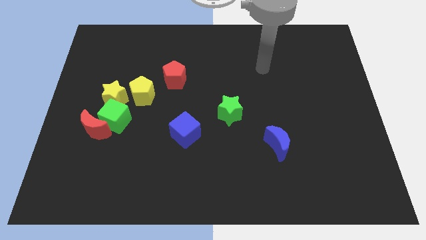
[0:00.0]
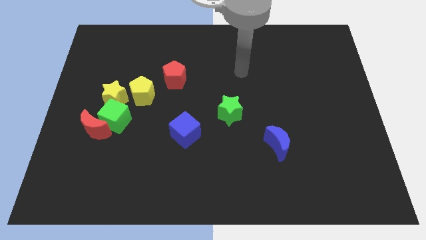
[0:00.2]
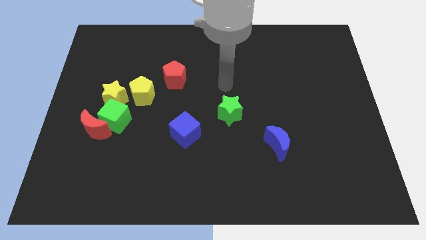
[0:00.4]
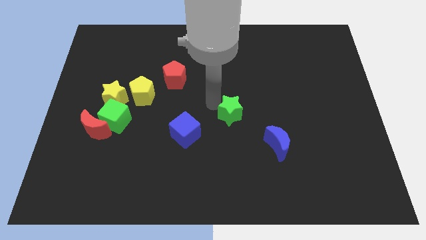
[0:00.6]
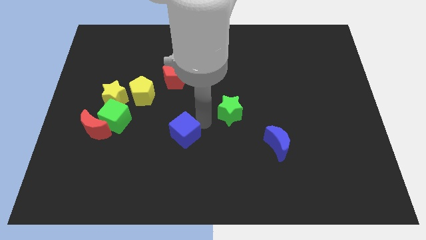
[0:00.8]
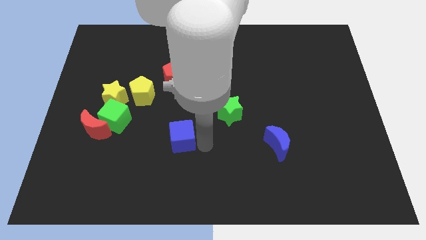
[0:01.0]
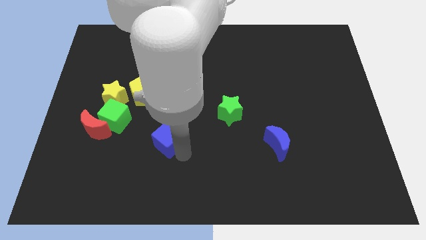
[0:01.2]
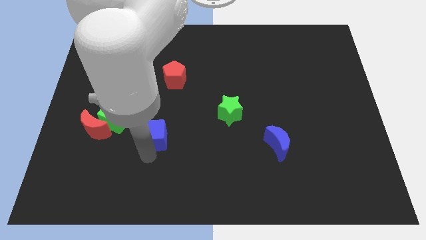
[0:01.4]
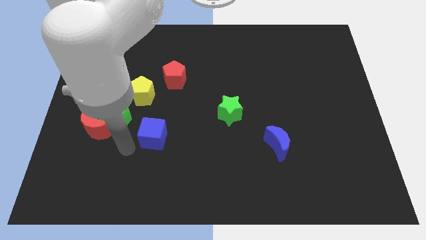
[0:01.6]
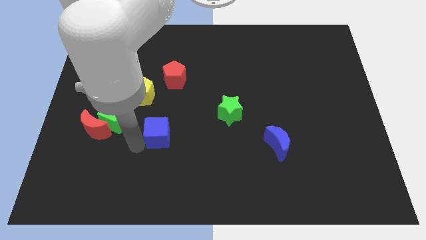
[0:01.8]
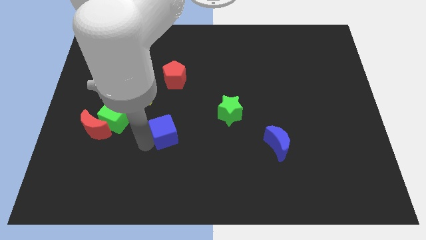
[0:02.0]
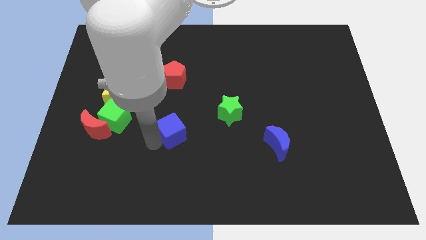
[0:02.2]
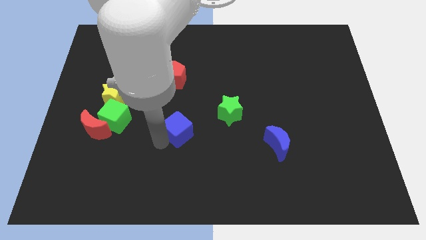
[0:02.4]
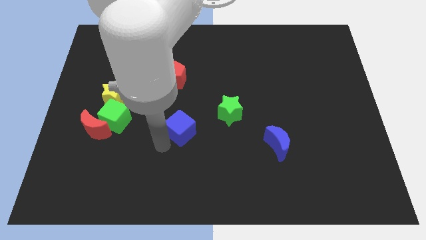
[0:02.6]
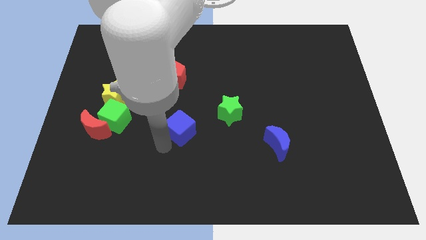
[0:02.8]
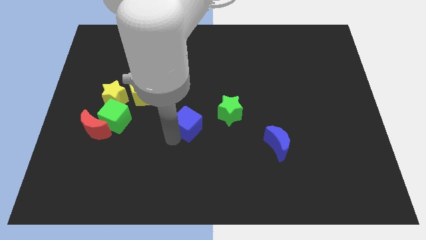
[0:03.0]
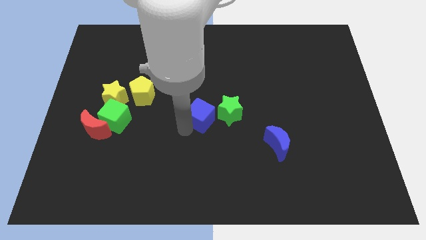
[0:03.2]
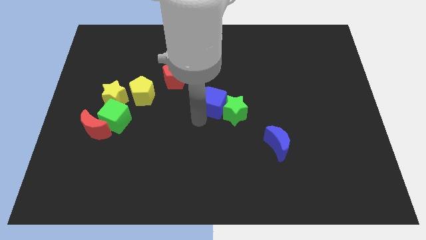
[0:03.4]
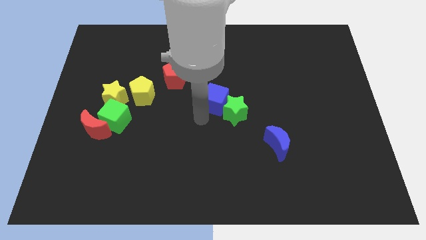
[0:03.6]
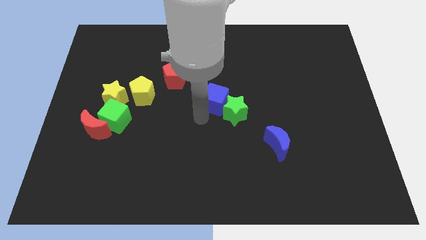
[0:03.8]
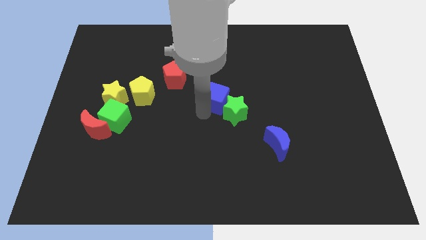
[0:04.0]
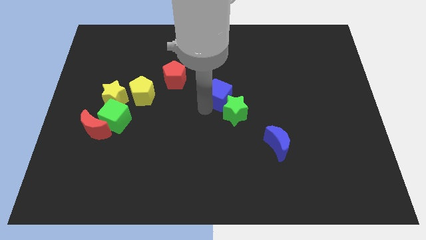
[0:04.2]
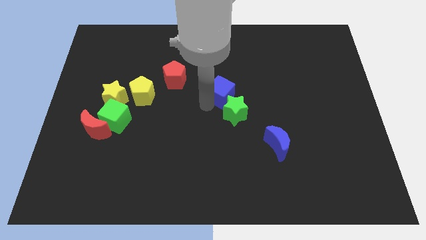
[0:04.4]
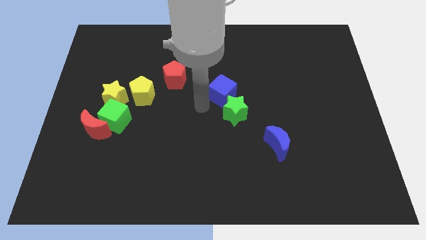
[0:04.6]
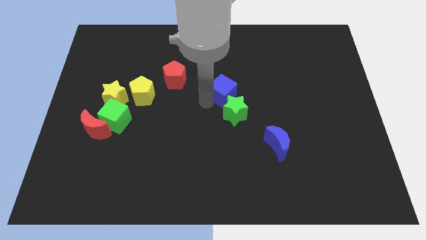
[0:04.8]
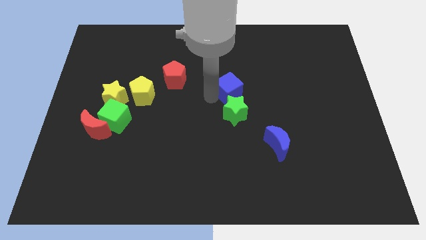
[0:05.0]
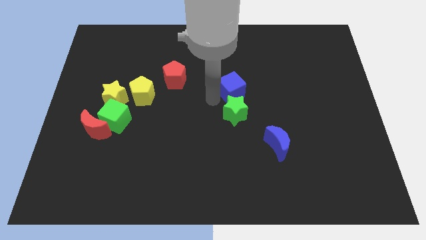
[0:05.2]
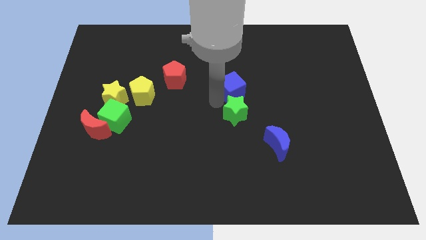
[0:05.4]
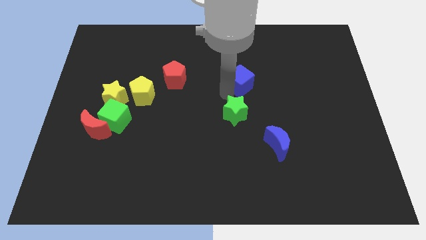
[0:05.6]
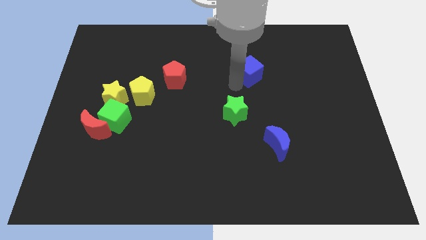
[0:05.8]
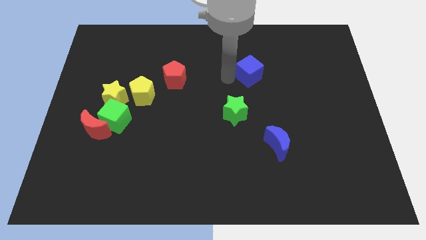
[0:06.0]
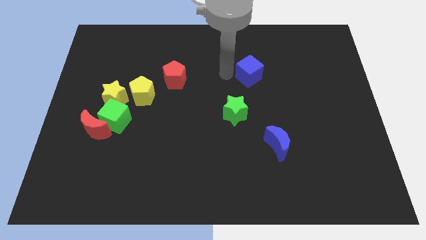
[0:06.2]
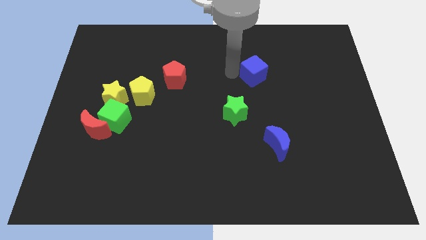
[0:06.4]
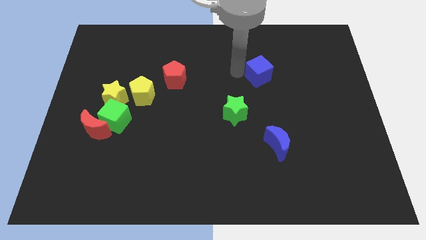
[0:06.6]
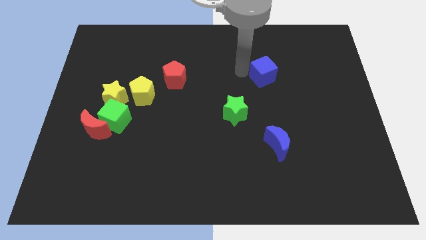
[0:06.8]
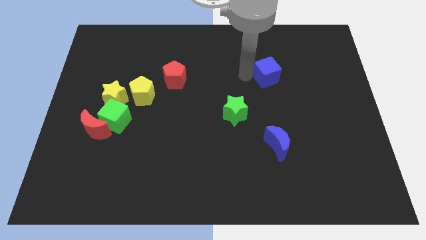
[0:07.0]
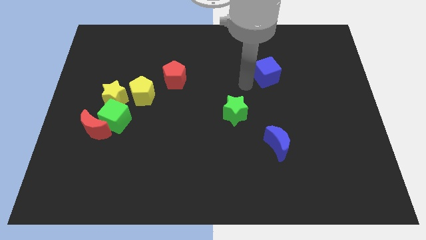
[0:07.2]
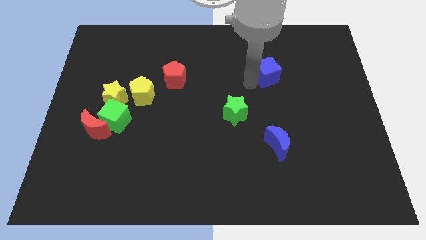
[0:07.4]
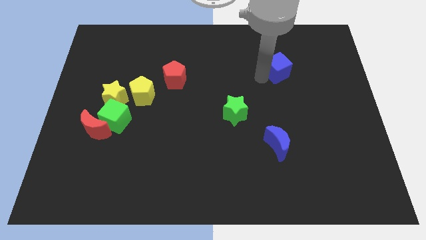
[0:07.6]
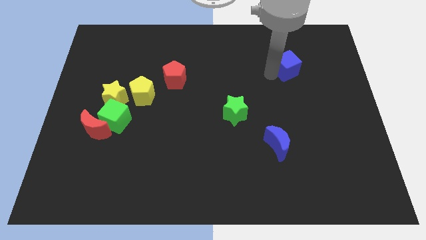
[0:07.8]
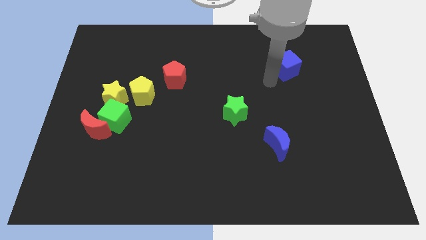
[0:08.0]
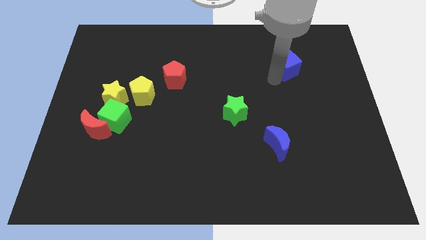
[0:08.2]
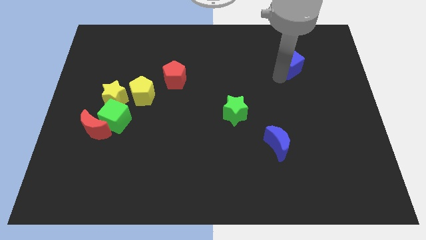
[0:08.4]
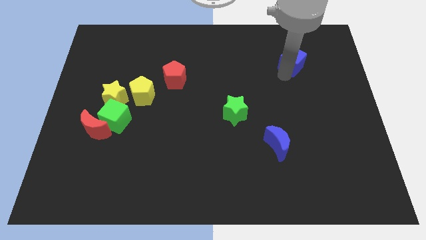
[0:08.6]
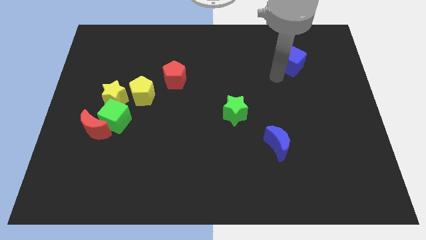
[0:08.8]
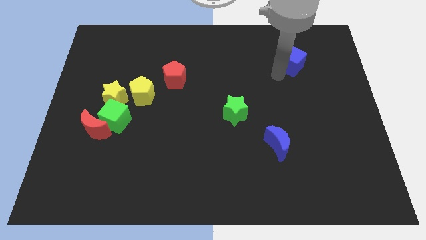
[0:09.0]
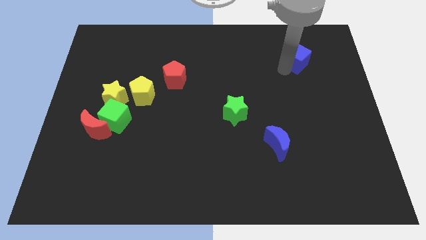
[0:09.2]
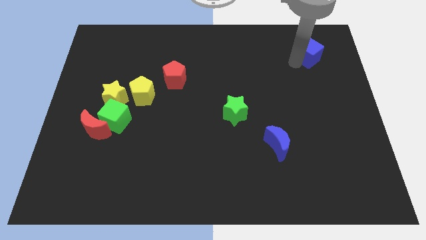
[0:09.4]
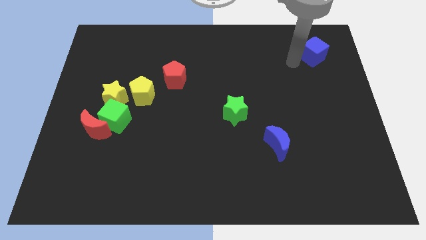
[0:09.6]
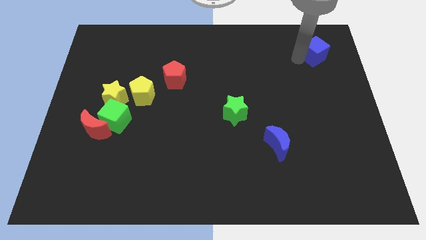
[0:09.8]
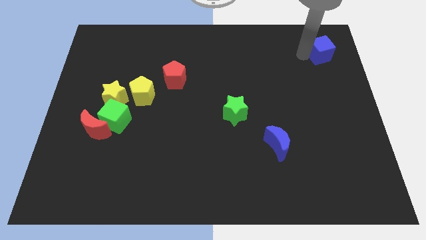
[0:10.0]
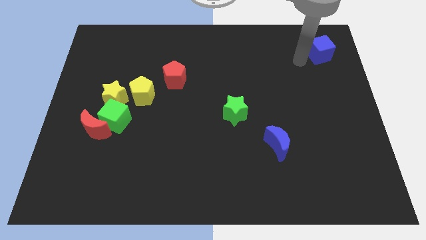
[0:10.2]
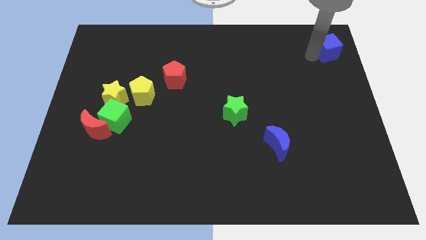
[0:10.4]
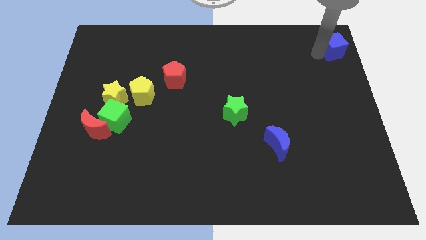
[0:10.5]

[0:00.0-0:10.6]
put the blue cube to the top right

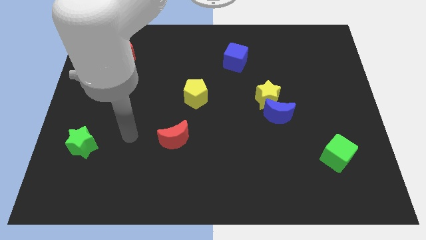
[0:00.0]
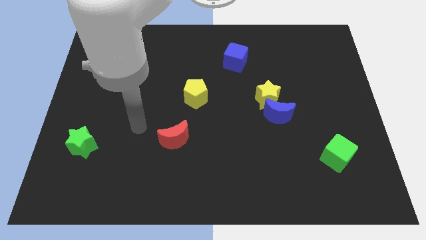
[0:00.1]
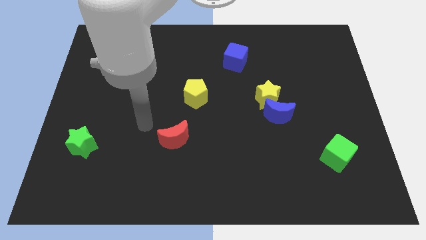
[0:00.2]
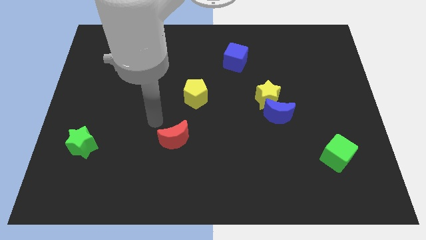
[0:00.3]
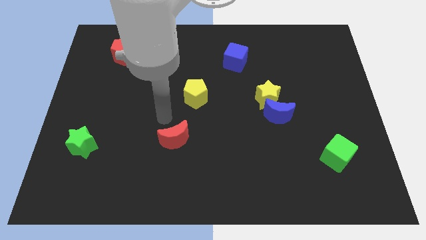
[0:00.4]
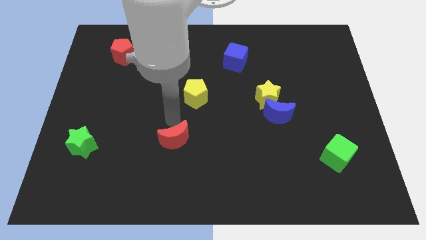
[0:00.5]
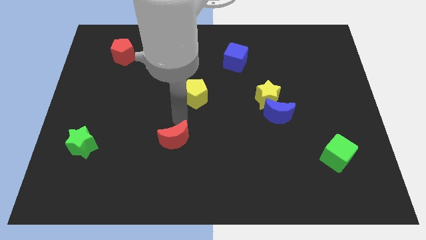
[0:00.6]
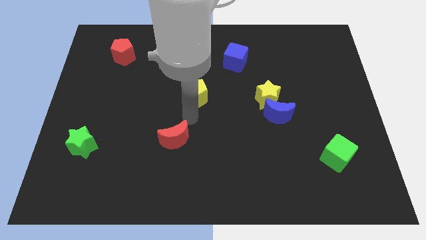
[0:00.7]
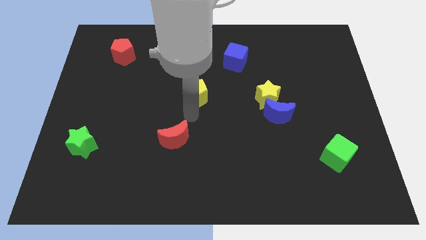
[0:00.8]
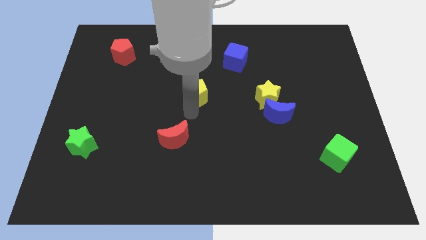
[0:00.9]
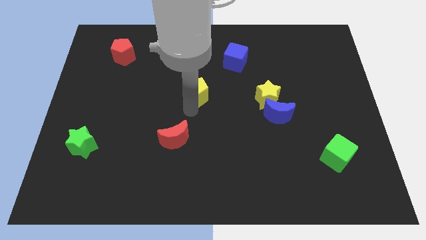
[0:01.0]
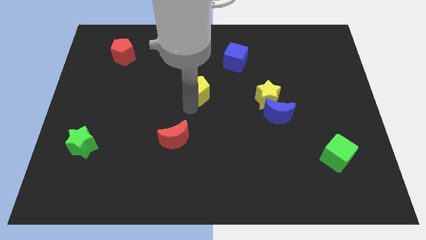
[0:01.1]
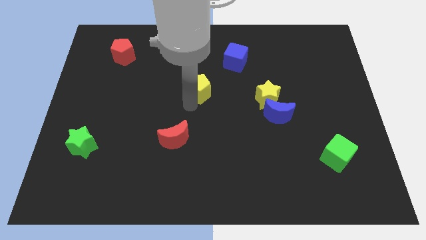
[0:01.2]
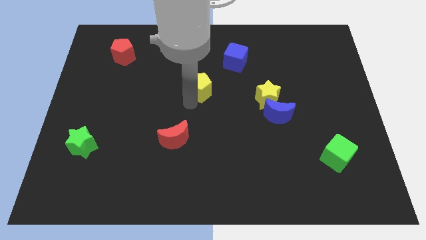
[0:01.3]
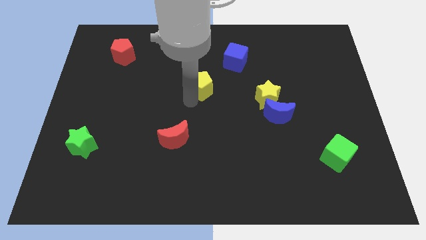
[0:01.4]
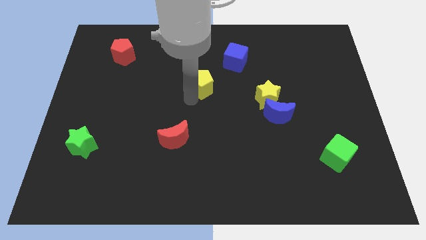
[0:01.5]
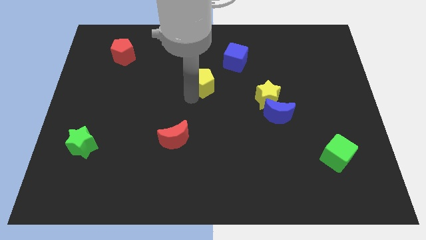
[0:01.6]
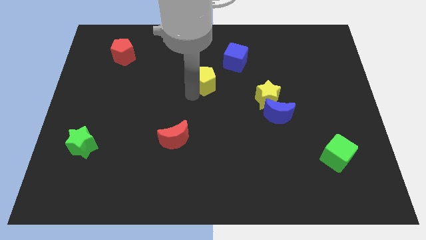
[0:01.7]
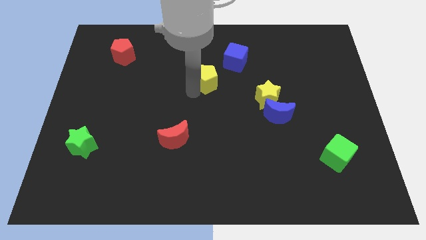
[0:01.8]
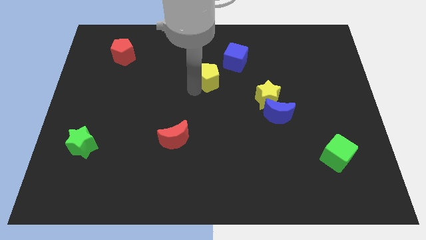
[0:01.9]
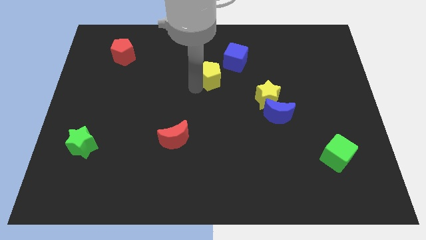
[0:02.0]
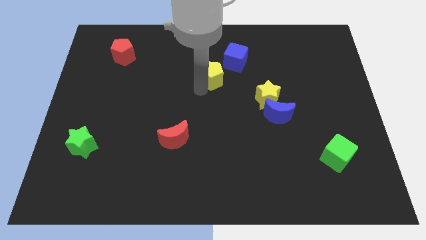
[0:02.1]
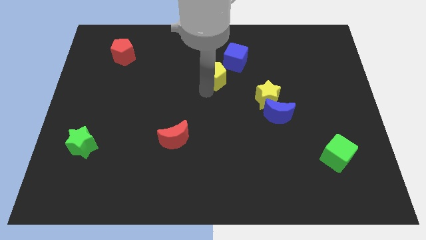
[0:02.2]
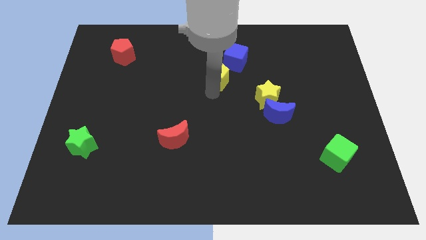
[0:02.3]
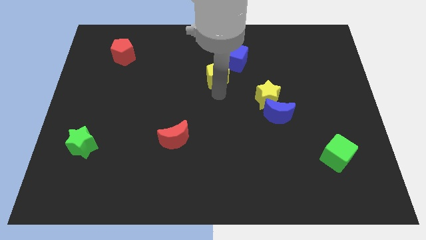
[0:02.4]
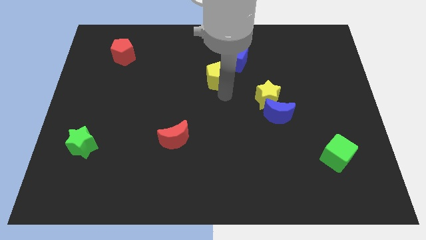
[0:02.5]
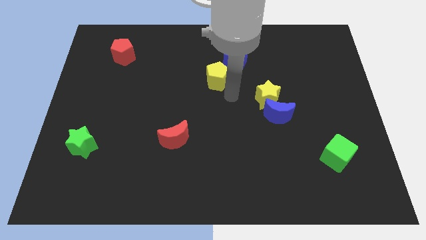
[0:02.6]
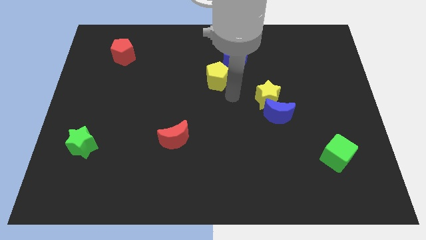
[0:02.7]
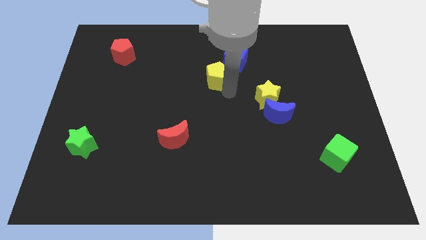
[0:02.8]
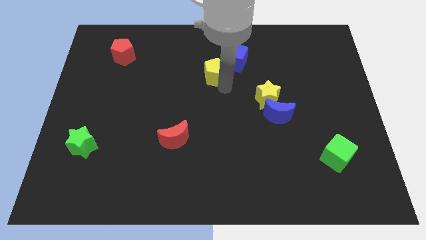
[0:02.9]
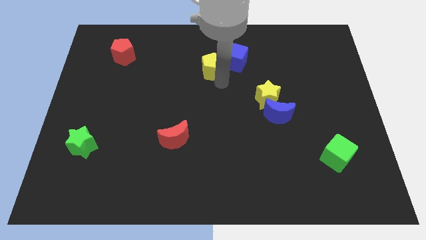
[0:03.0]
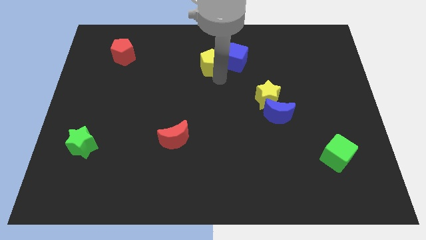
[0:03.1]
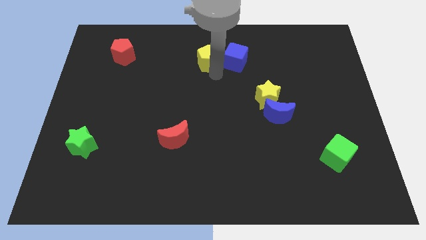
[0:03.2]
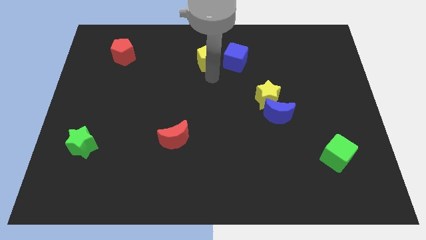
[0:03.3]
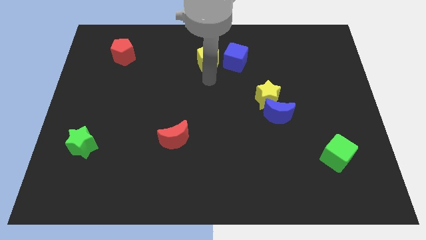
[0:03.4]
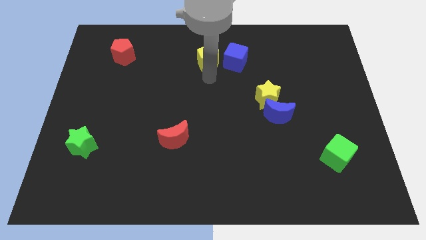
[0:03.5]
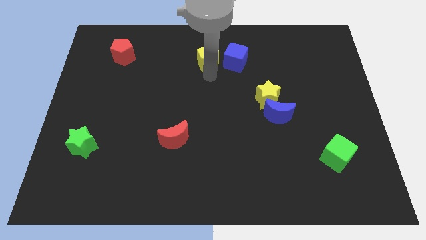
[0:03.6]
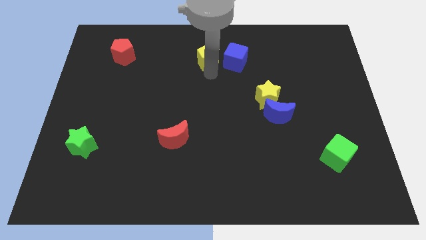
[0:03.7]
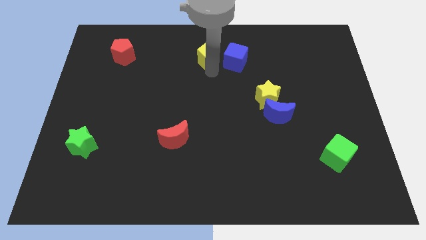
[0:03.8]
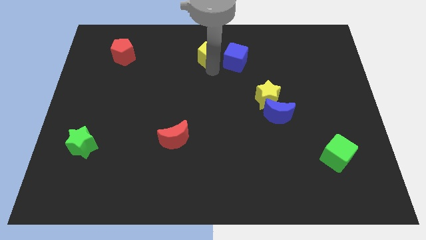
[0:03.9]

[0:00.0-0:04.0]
move the yellow pentagon to the top
